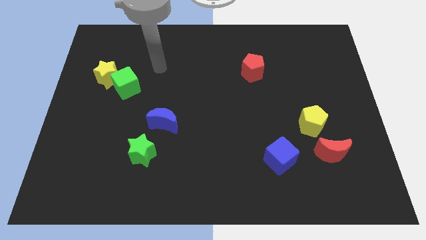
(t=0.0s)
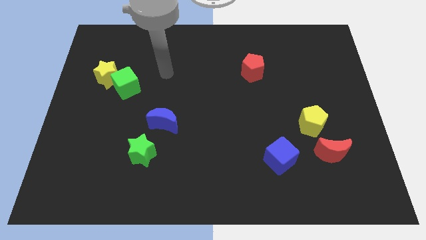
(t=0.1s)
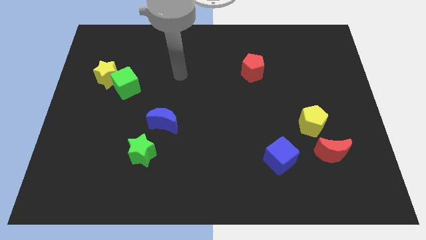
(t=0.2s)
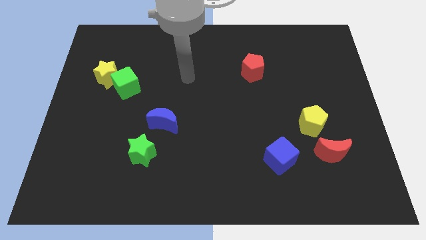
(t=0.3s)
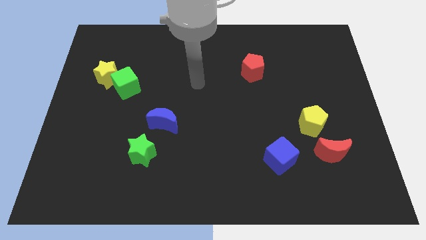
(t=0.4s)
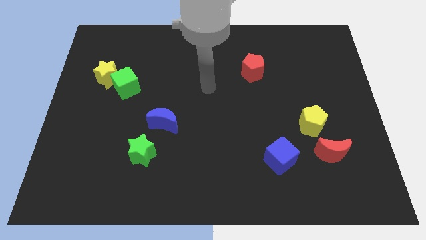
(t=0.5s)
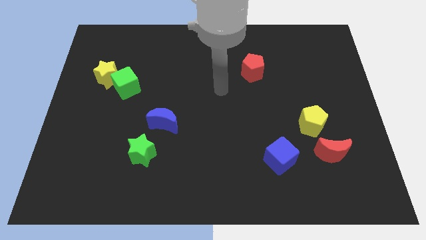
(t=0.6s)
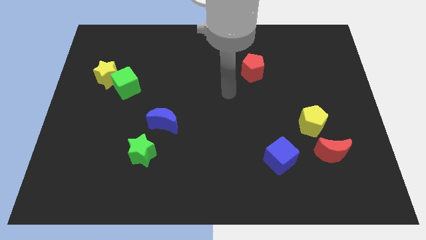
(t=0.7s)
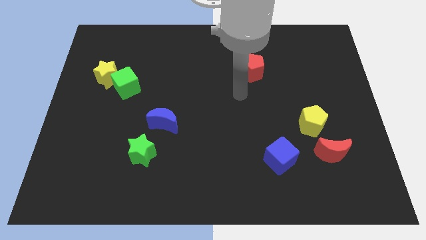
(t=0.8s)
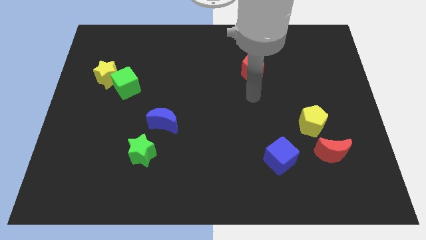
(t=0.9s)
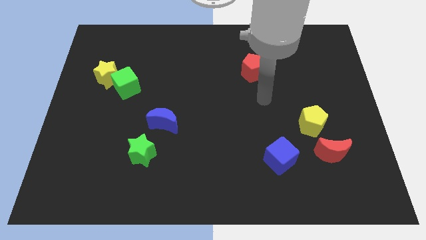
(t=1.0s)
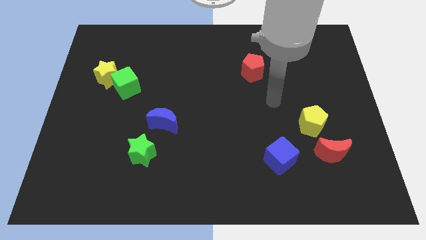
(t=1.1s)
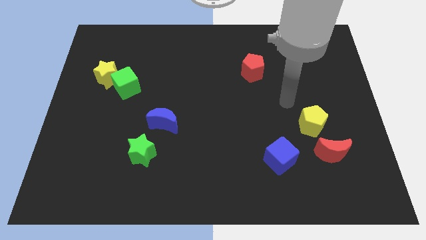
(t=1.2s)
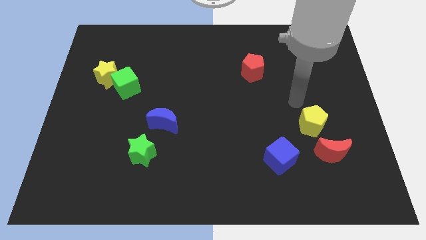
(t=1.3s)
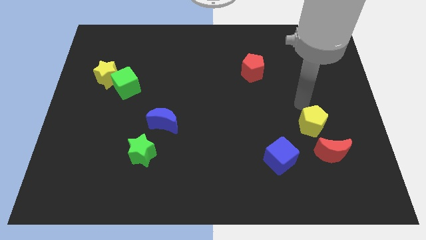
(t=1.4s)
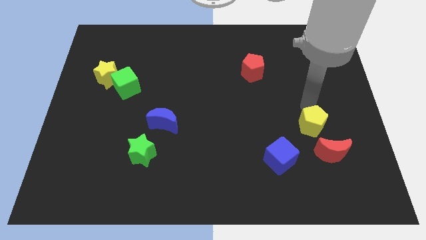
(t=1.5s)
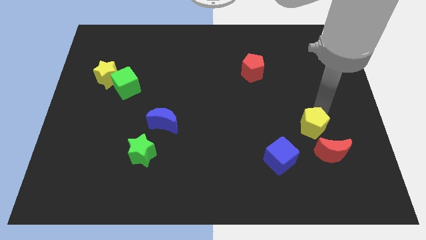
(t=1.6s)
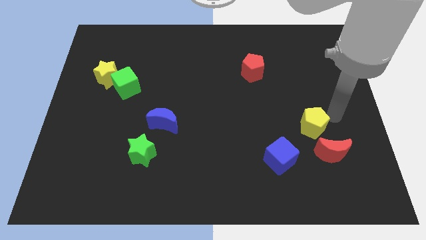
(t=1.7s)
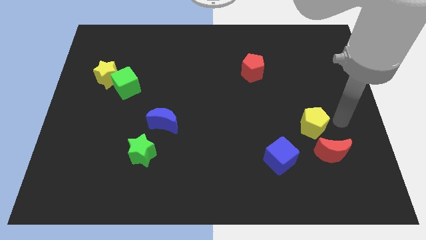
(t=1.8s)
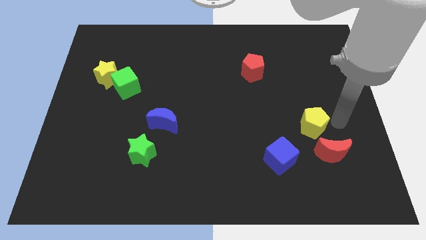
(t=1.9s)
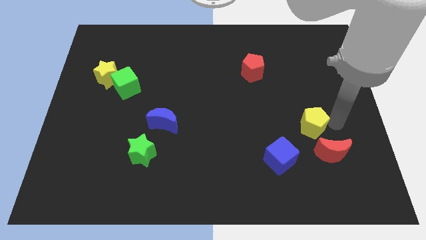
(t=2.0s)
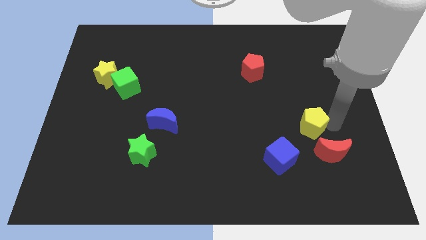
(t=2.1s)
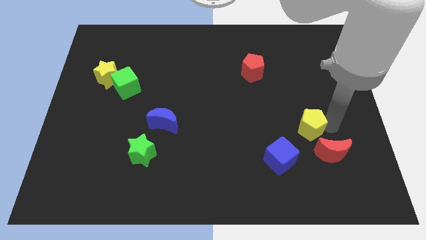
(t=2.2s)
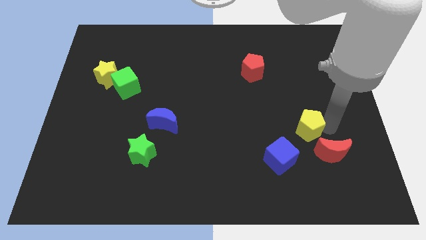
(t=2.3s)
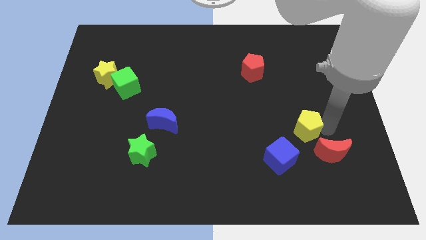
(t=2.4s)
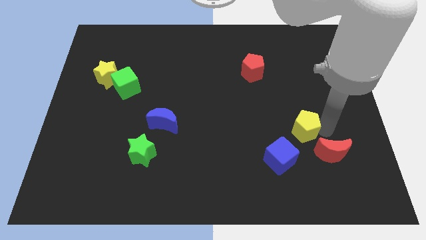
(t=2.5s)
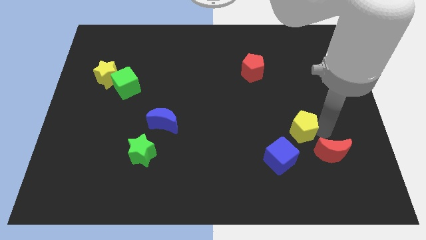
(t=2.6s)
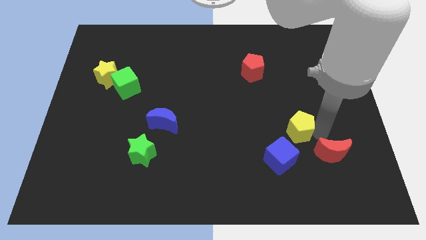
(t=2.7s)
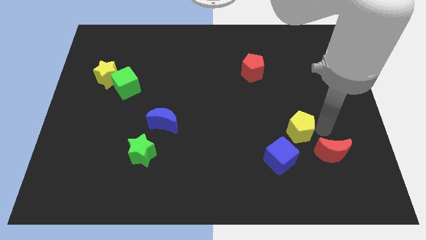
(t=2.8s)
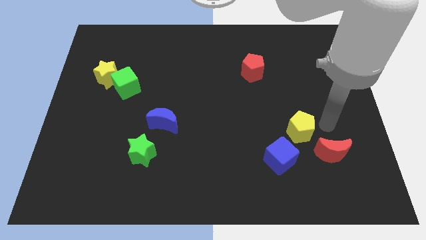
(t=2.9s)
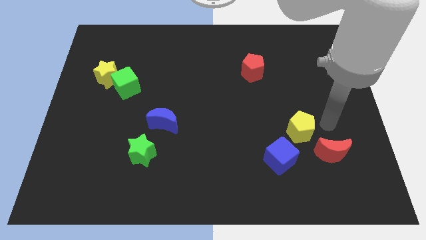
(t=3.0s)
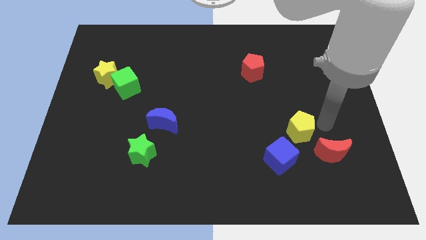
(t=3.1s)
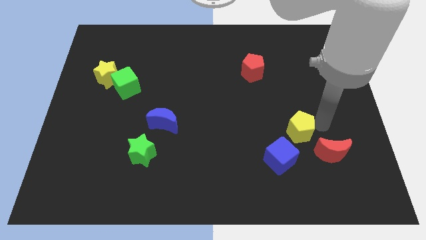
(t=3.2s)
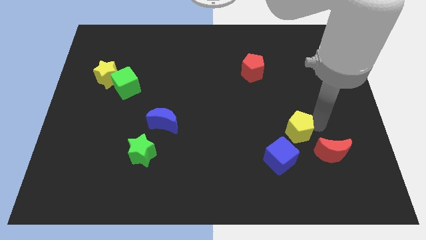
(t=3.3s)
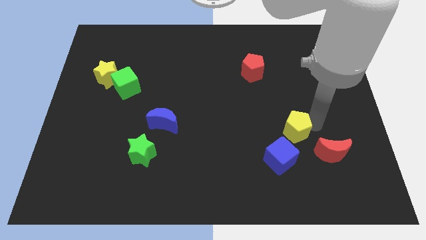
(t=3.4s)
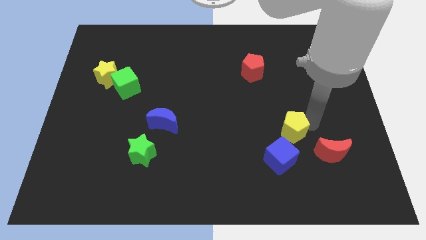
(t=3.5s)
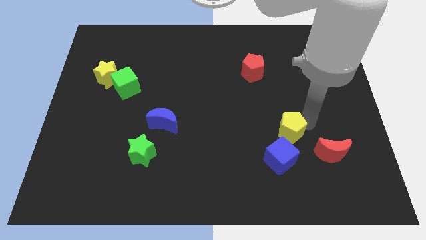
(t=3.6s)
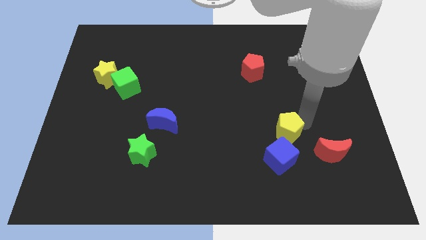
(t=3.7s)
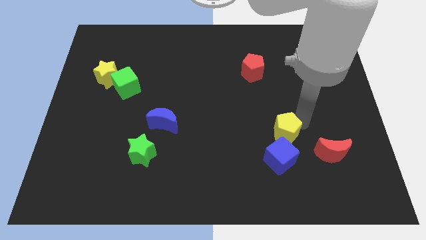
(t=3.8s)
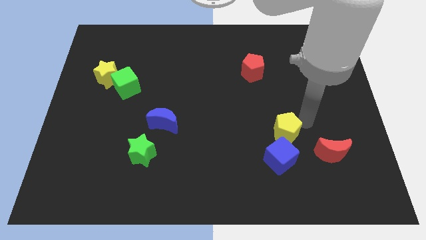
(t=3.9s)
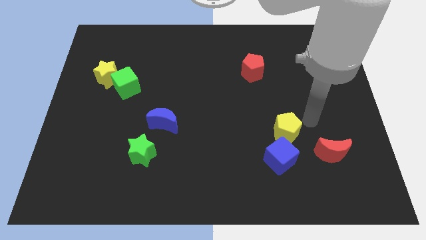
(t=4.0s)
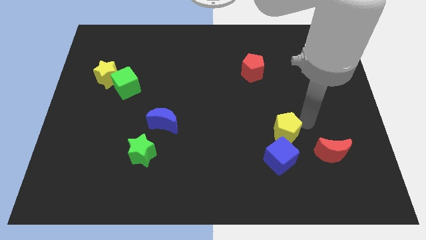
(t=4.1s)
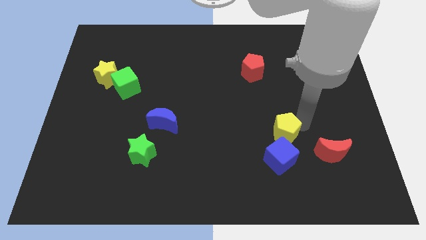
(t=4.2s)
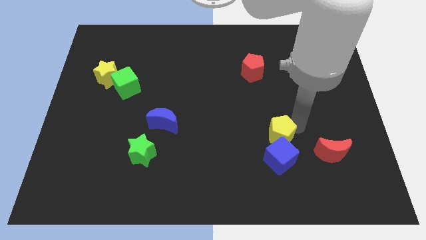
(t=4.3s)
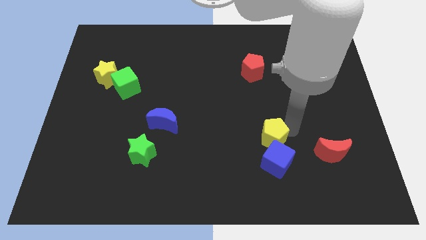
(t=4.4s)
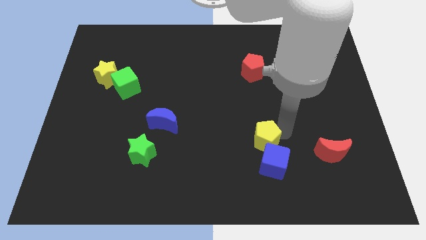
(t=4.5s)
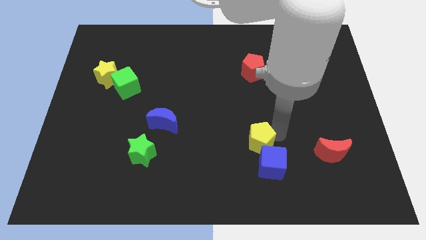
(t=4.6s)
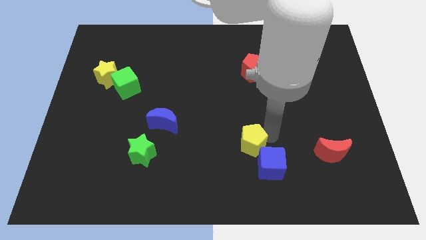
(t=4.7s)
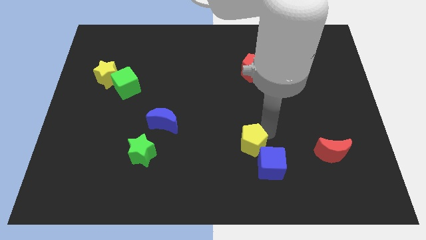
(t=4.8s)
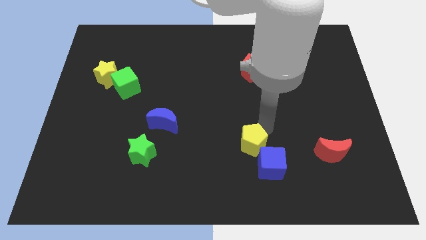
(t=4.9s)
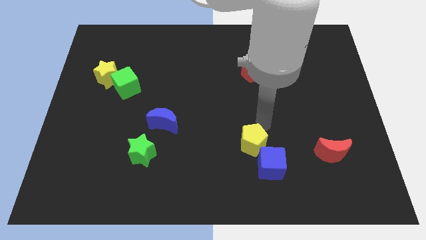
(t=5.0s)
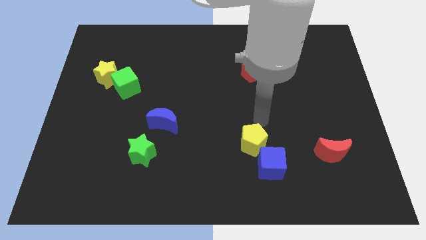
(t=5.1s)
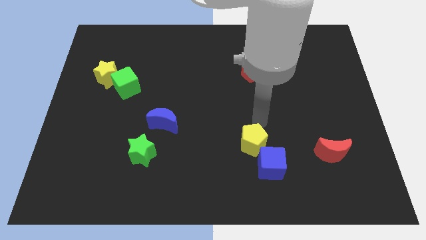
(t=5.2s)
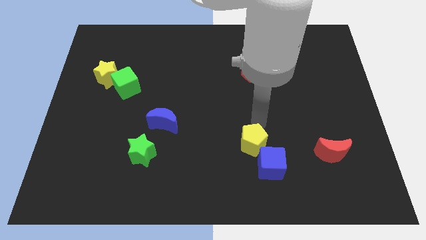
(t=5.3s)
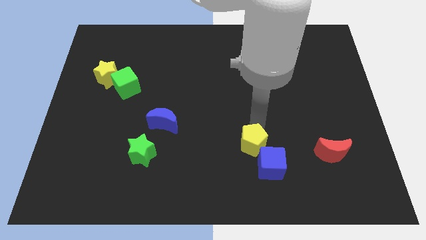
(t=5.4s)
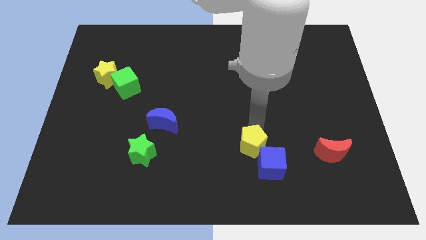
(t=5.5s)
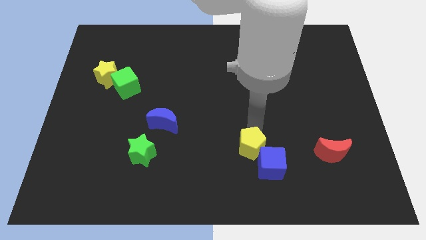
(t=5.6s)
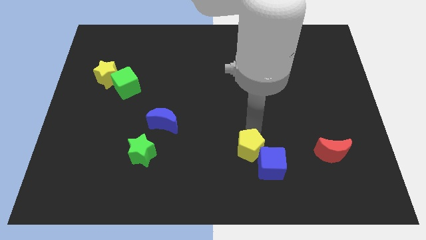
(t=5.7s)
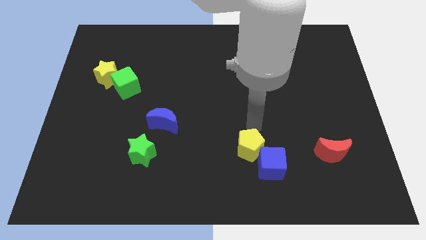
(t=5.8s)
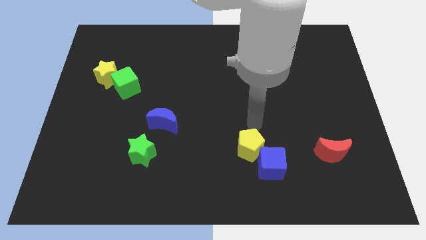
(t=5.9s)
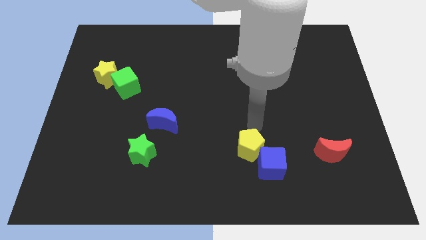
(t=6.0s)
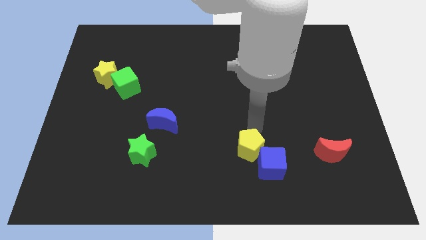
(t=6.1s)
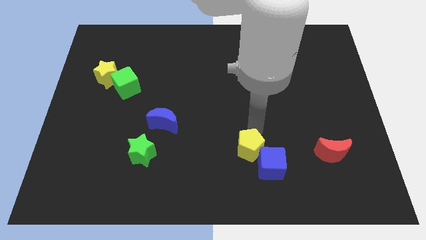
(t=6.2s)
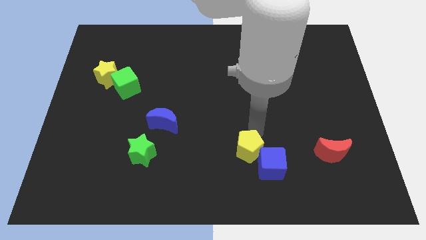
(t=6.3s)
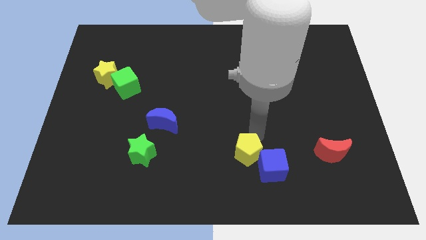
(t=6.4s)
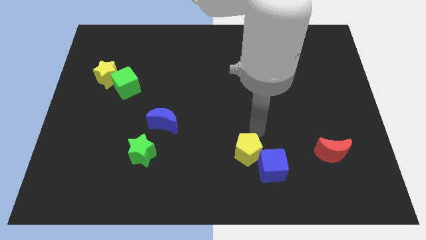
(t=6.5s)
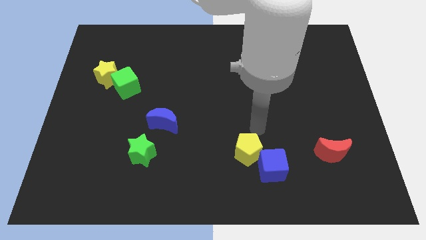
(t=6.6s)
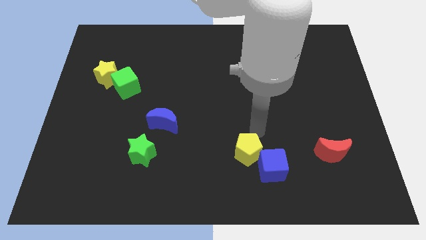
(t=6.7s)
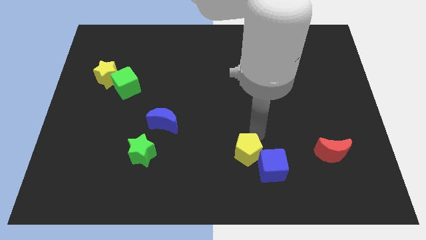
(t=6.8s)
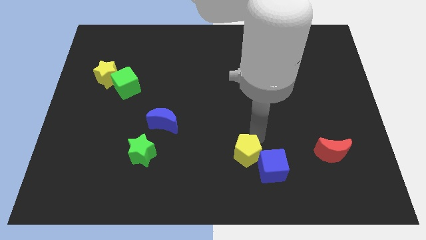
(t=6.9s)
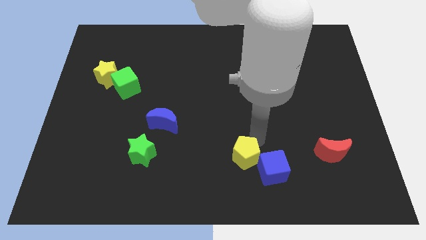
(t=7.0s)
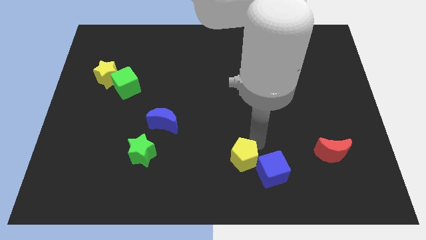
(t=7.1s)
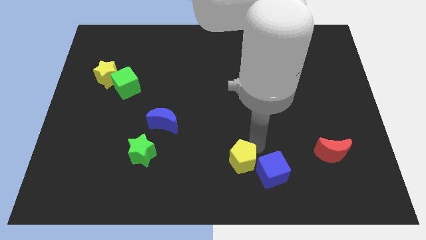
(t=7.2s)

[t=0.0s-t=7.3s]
move the yellow pentagon to the bottom
